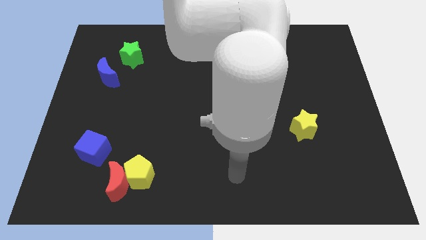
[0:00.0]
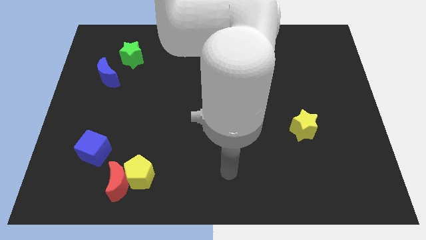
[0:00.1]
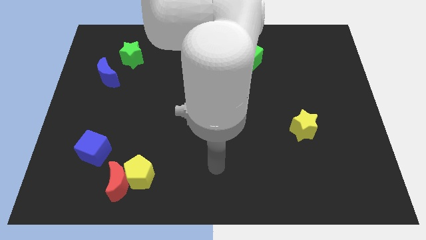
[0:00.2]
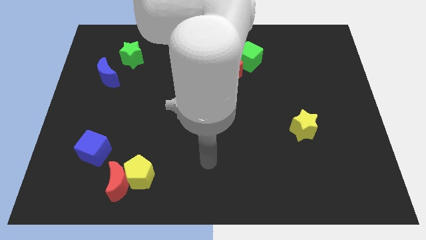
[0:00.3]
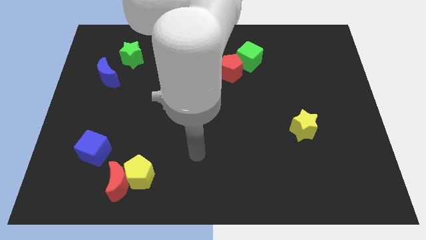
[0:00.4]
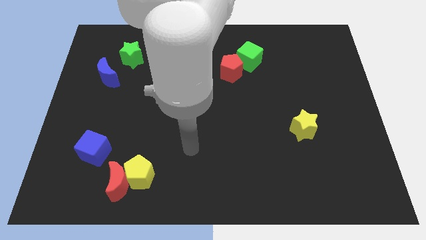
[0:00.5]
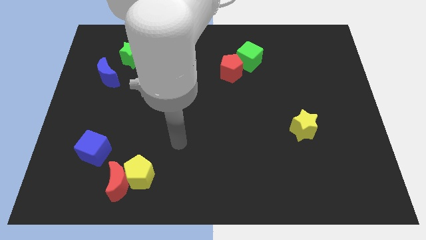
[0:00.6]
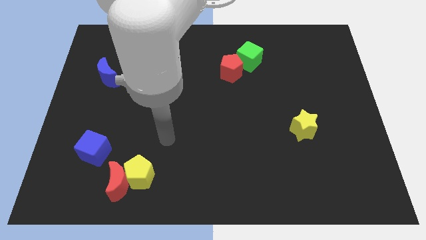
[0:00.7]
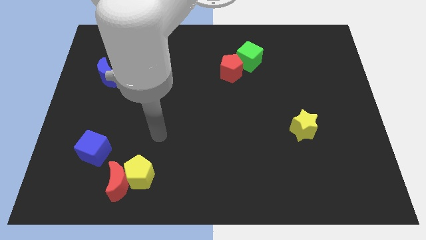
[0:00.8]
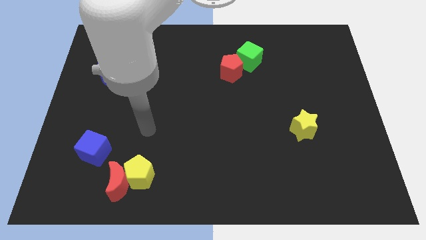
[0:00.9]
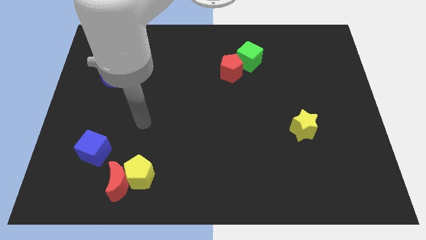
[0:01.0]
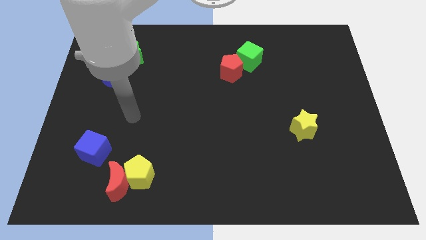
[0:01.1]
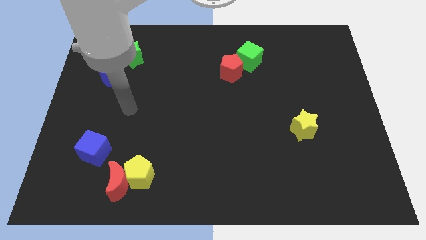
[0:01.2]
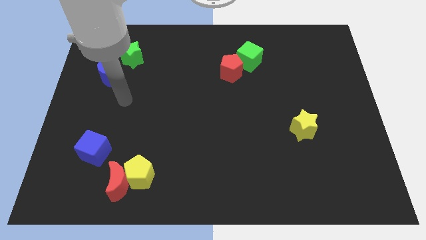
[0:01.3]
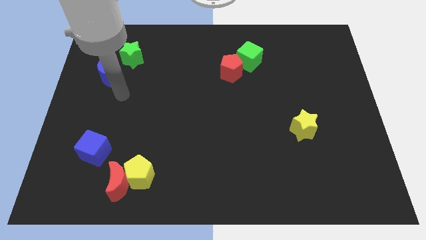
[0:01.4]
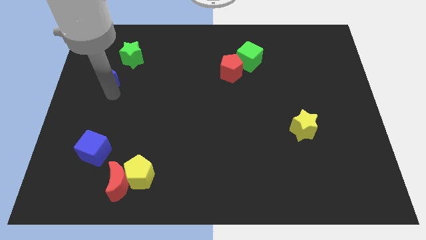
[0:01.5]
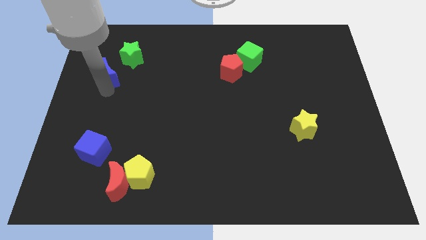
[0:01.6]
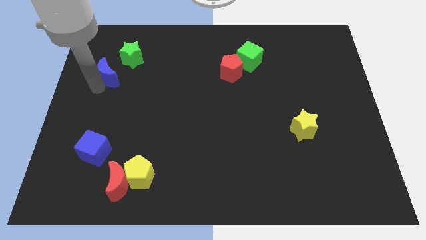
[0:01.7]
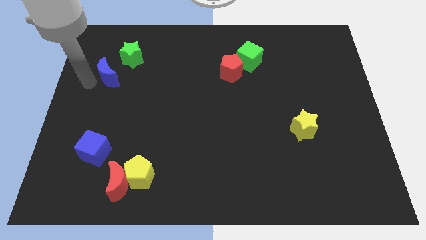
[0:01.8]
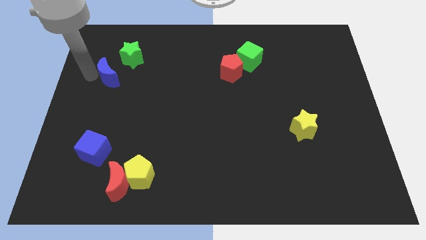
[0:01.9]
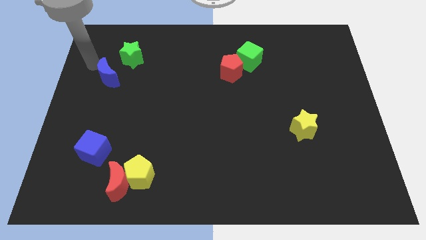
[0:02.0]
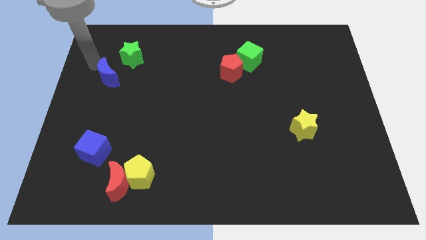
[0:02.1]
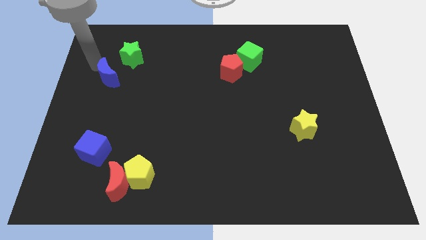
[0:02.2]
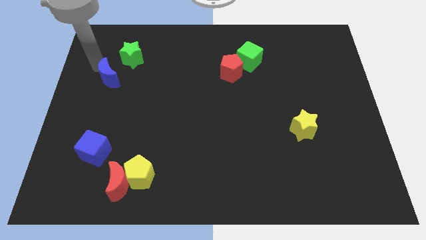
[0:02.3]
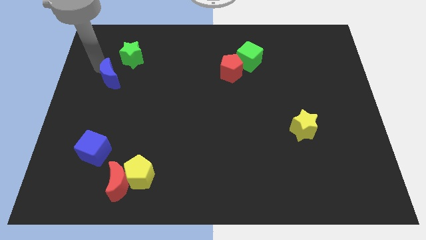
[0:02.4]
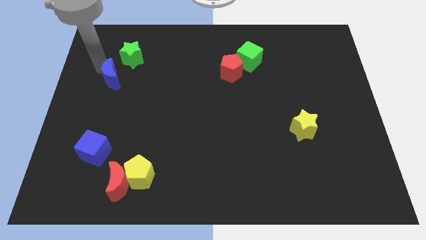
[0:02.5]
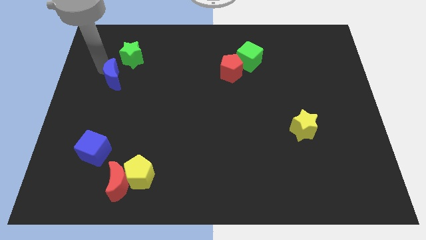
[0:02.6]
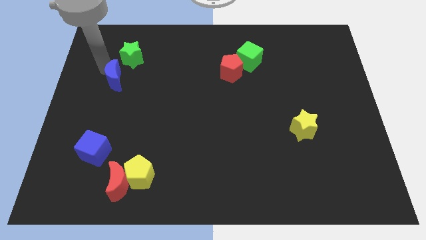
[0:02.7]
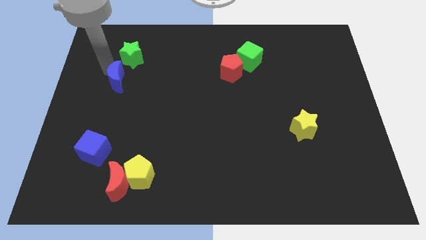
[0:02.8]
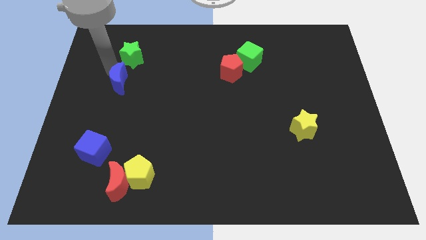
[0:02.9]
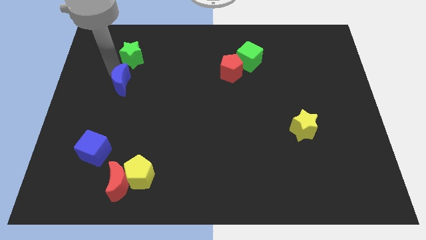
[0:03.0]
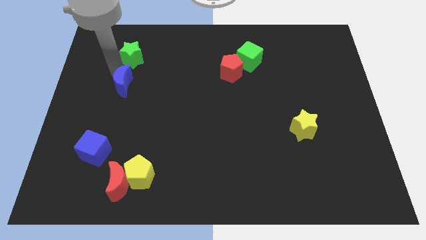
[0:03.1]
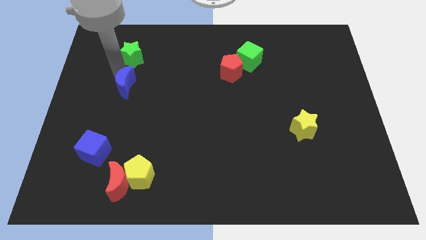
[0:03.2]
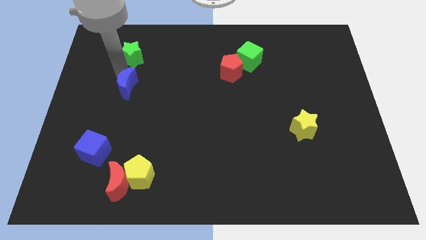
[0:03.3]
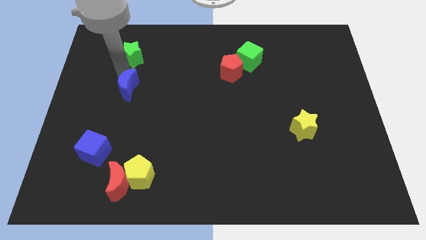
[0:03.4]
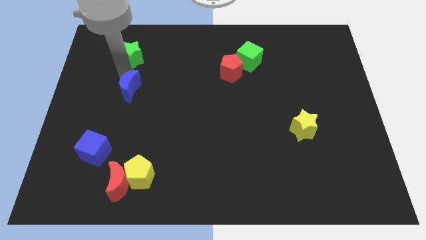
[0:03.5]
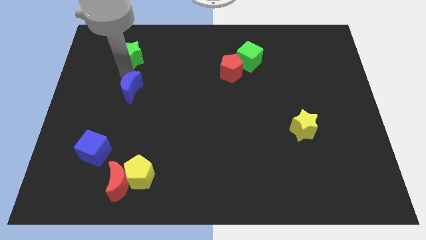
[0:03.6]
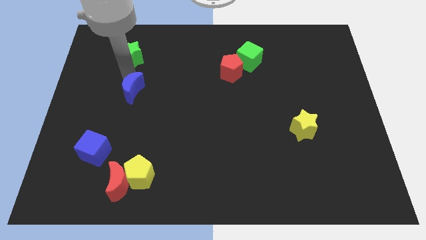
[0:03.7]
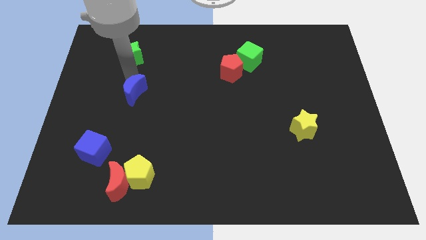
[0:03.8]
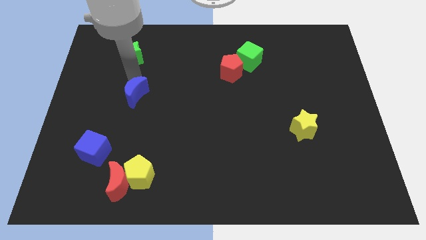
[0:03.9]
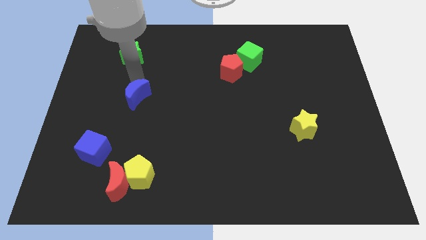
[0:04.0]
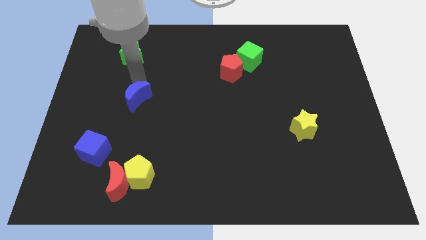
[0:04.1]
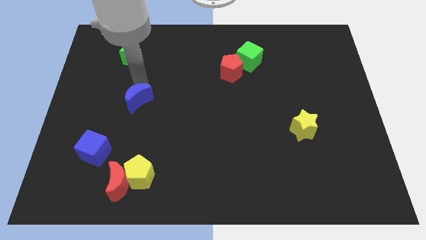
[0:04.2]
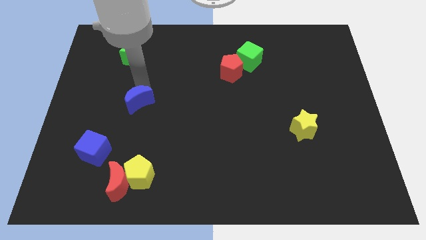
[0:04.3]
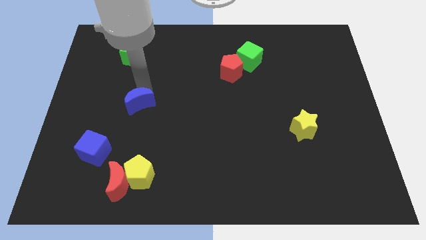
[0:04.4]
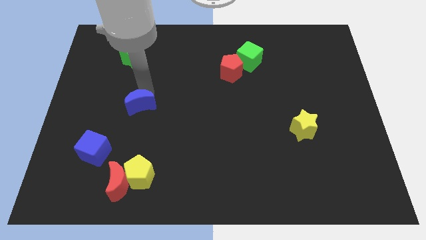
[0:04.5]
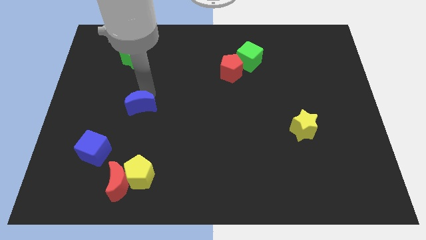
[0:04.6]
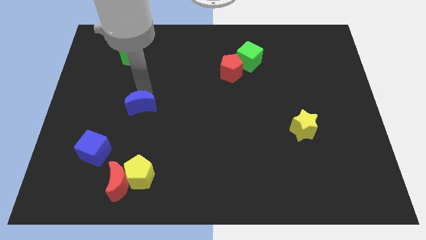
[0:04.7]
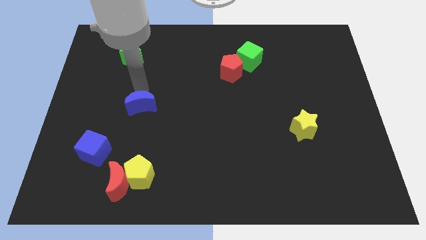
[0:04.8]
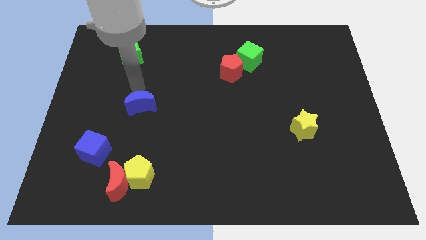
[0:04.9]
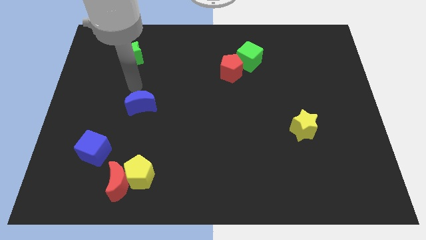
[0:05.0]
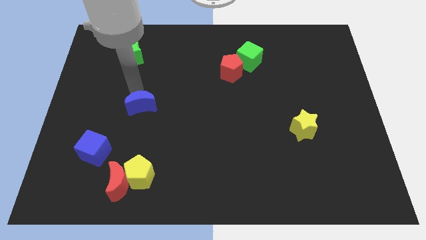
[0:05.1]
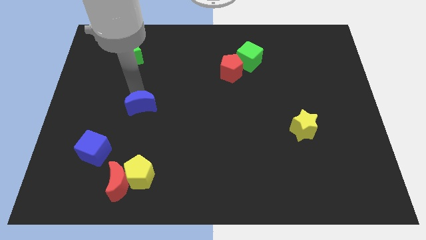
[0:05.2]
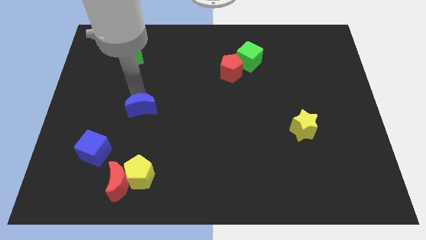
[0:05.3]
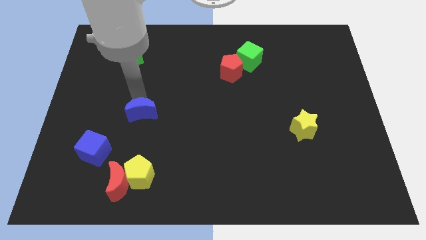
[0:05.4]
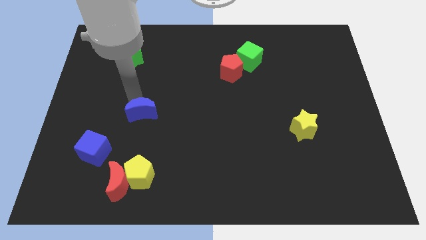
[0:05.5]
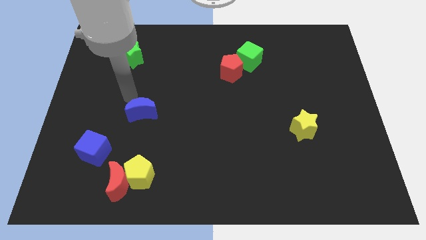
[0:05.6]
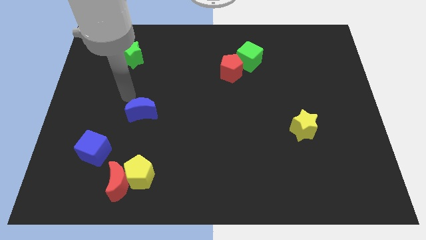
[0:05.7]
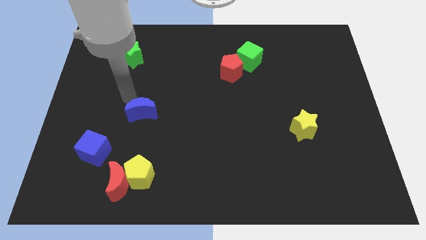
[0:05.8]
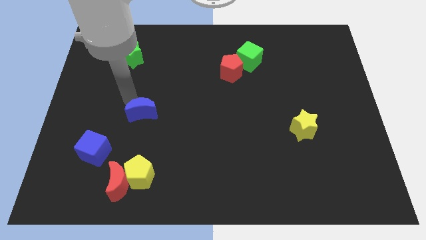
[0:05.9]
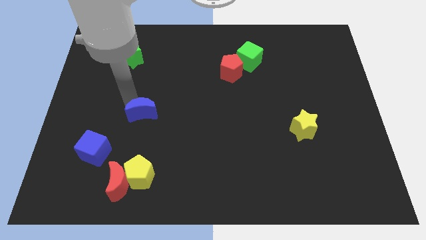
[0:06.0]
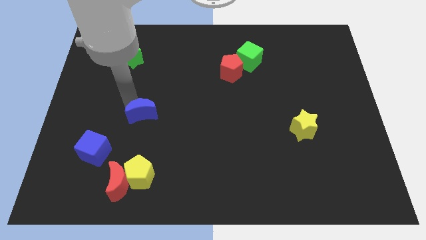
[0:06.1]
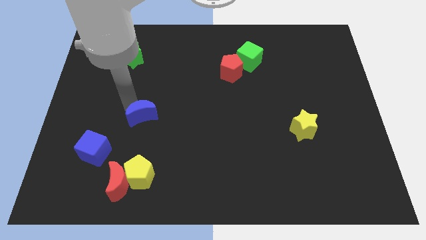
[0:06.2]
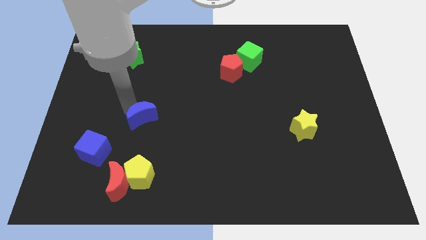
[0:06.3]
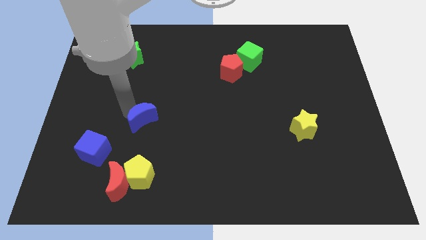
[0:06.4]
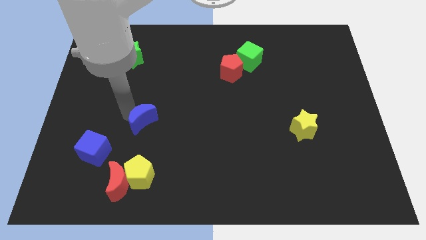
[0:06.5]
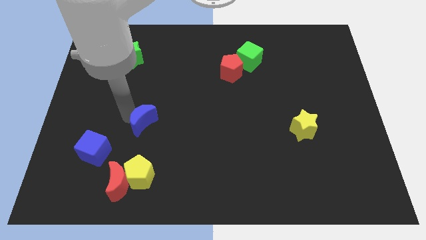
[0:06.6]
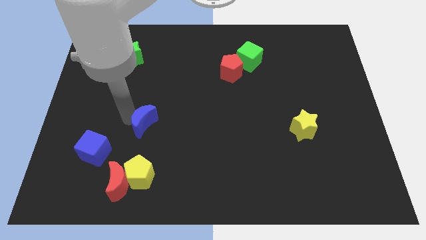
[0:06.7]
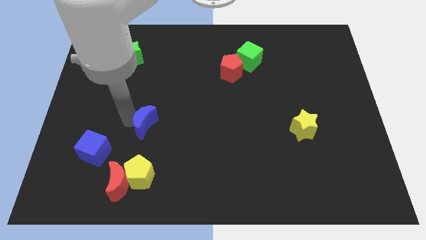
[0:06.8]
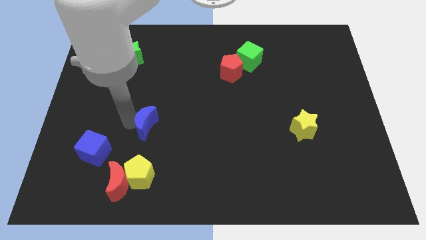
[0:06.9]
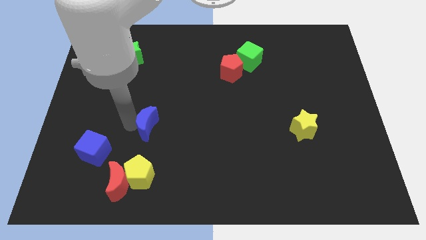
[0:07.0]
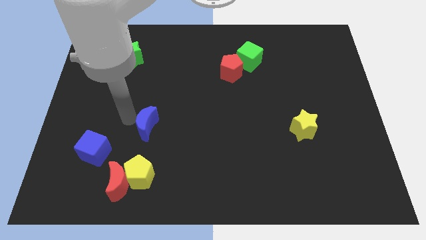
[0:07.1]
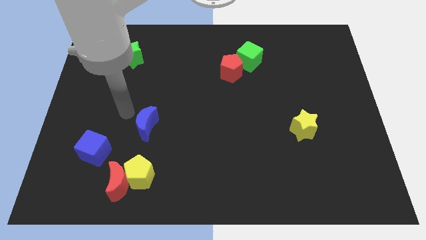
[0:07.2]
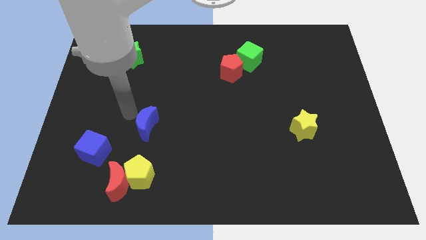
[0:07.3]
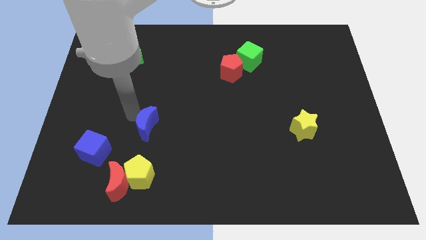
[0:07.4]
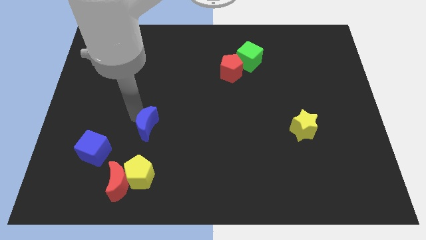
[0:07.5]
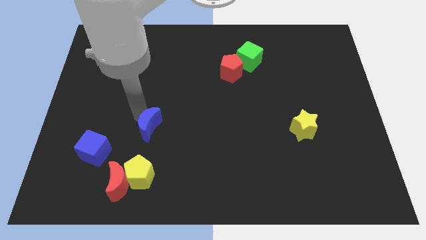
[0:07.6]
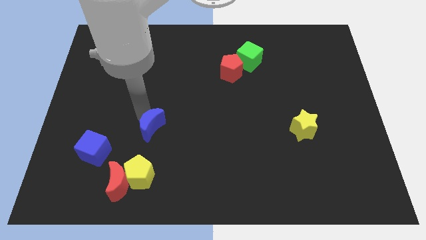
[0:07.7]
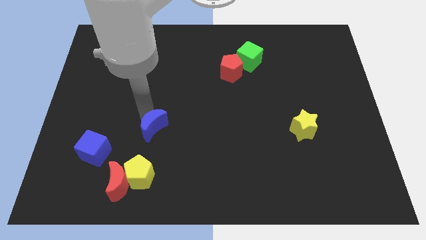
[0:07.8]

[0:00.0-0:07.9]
push the blue moon diagonally downwards and to the right
